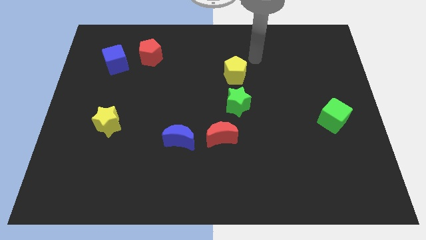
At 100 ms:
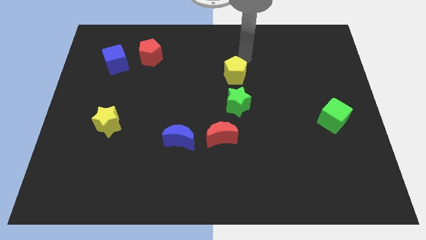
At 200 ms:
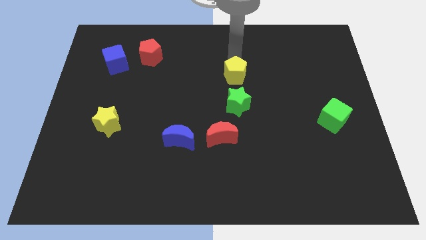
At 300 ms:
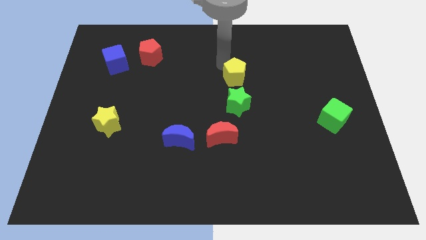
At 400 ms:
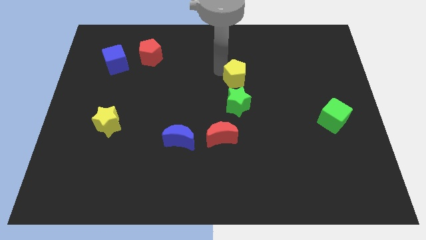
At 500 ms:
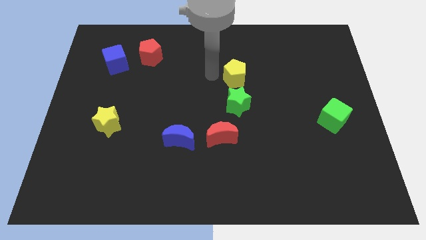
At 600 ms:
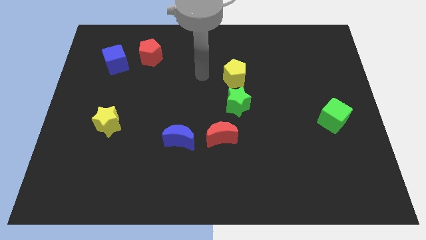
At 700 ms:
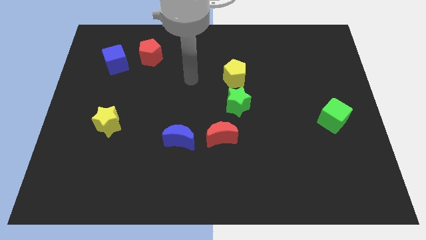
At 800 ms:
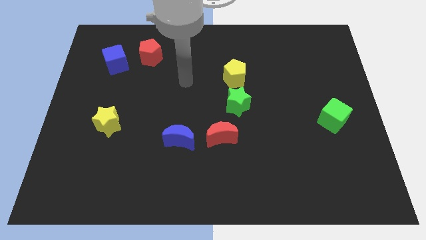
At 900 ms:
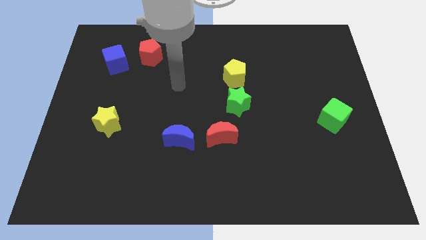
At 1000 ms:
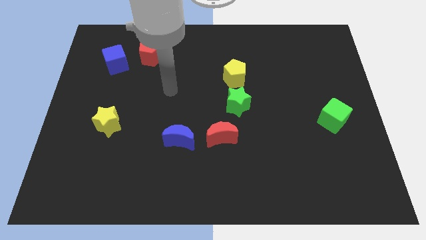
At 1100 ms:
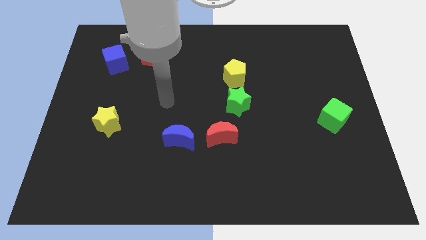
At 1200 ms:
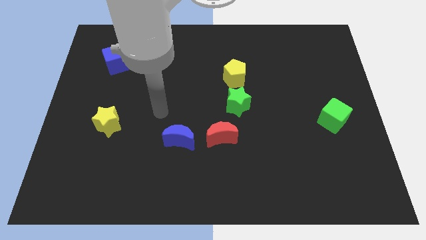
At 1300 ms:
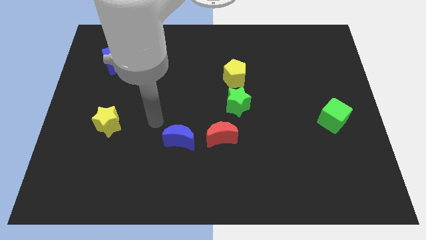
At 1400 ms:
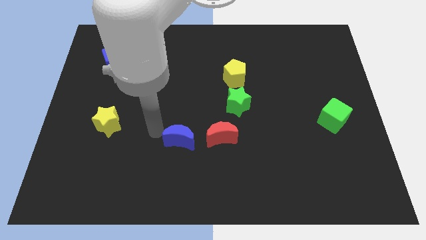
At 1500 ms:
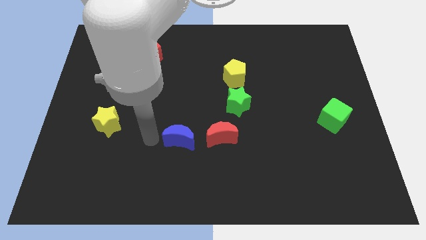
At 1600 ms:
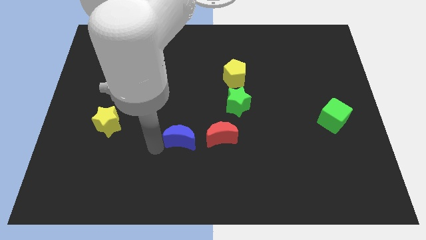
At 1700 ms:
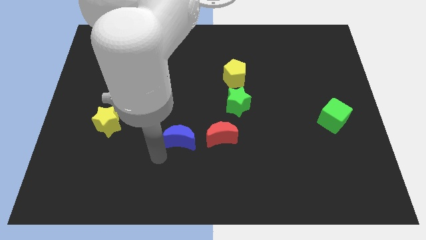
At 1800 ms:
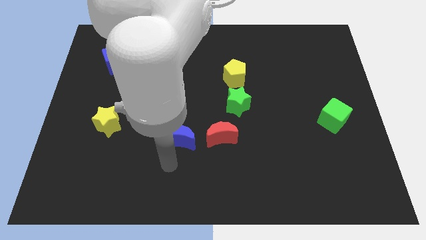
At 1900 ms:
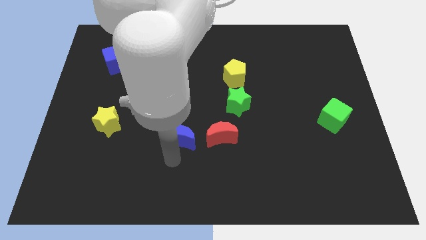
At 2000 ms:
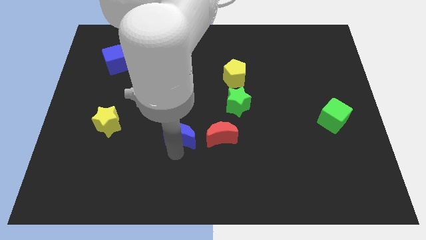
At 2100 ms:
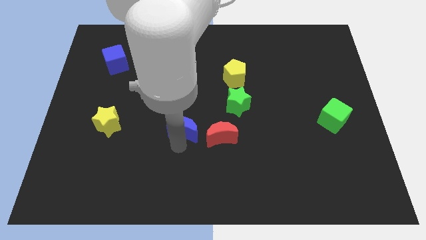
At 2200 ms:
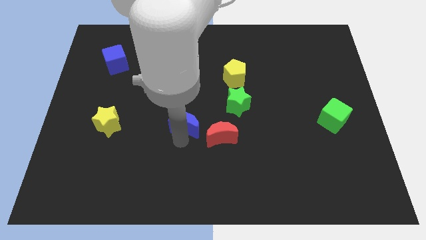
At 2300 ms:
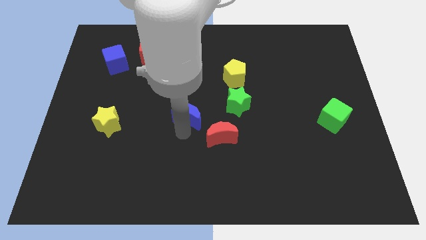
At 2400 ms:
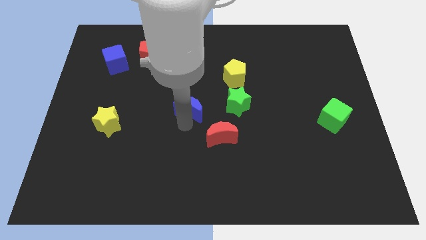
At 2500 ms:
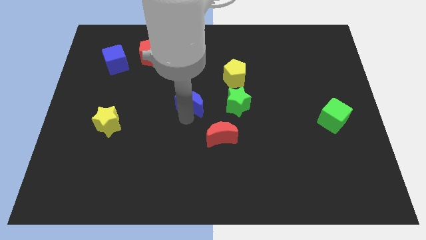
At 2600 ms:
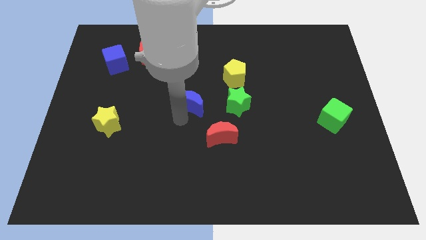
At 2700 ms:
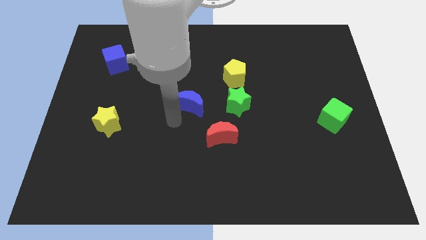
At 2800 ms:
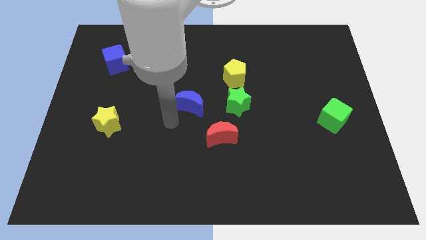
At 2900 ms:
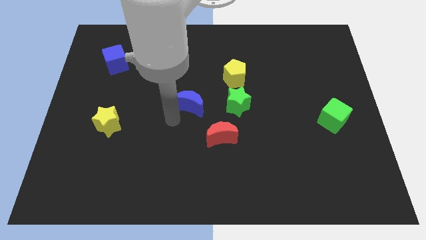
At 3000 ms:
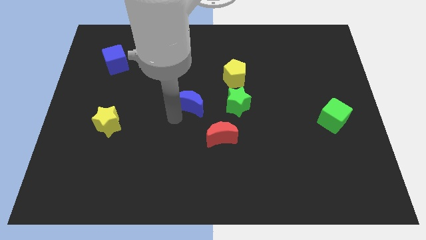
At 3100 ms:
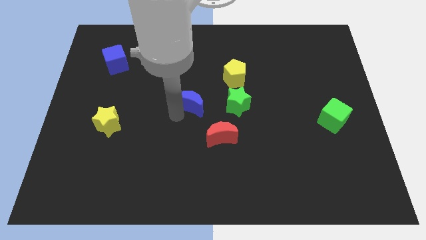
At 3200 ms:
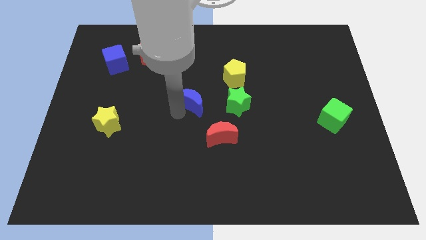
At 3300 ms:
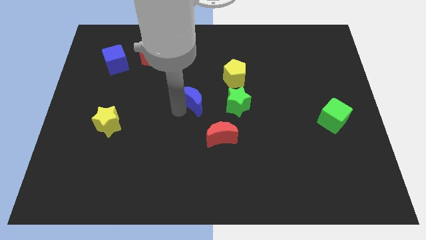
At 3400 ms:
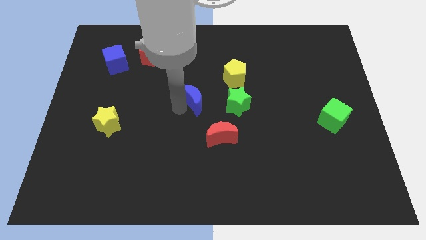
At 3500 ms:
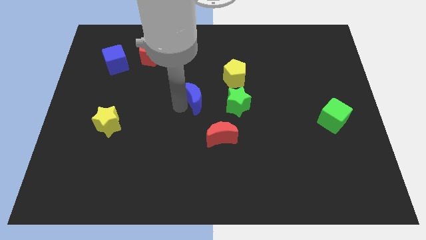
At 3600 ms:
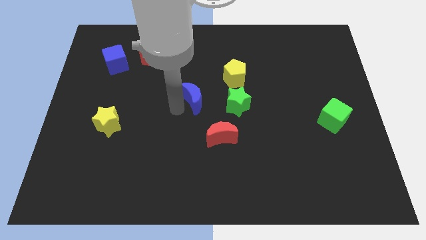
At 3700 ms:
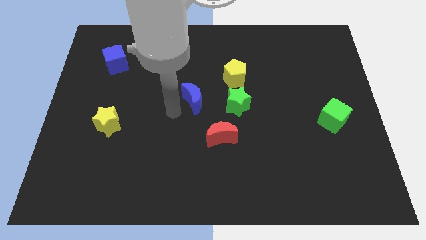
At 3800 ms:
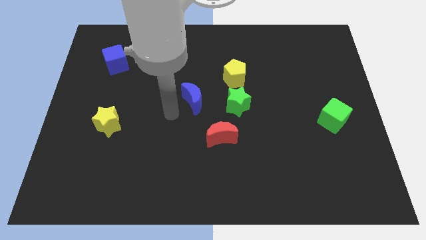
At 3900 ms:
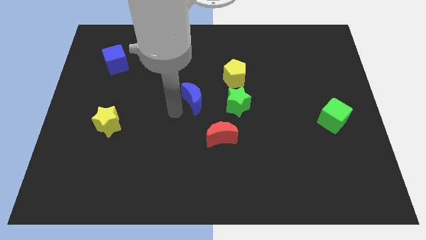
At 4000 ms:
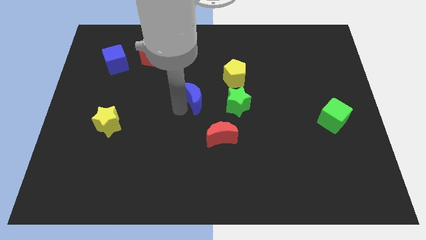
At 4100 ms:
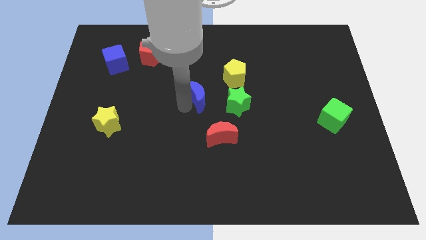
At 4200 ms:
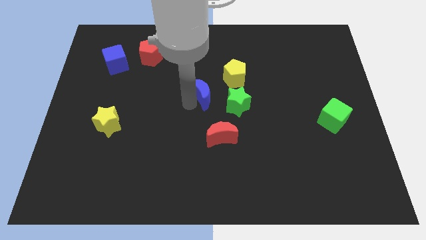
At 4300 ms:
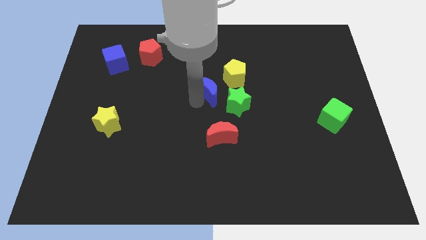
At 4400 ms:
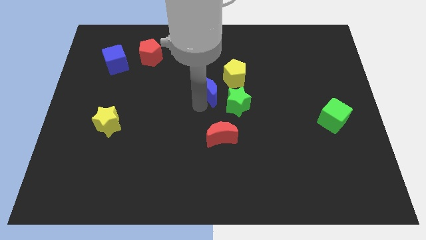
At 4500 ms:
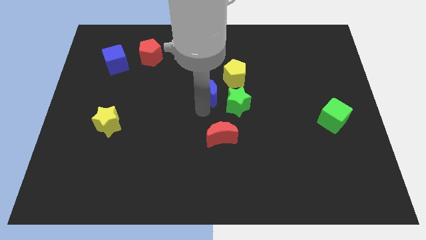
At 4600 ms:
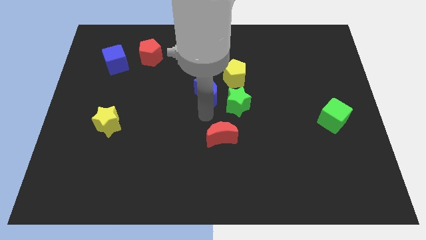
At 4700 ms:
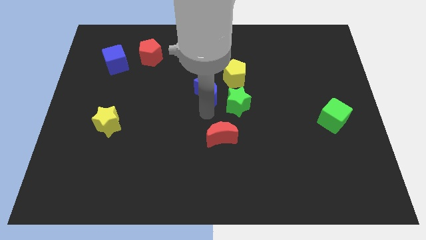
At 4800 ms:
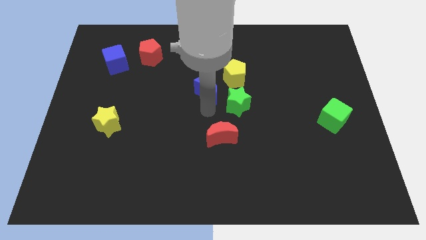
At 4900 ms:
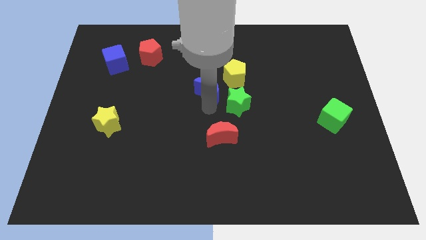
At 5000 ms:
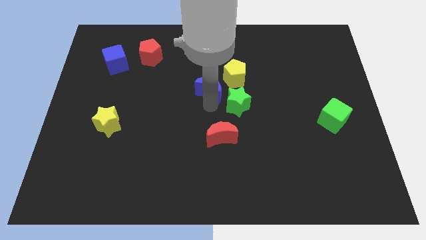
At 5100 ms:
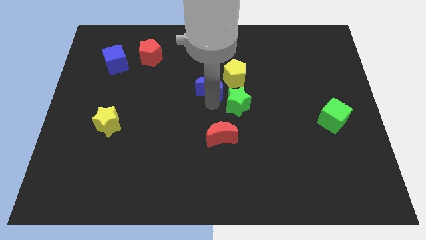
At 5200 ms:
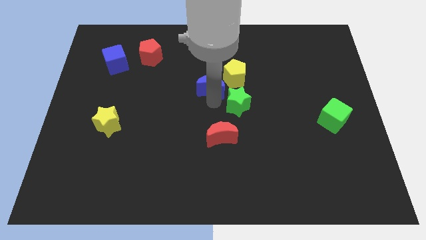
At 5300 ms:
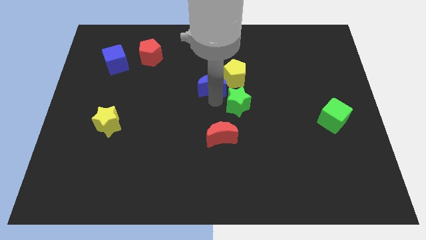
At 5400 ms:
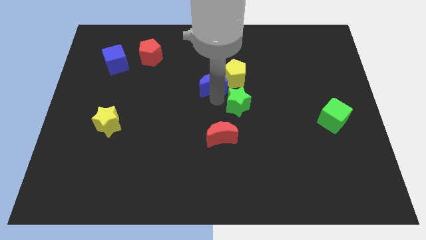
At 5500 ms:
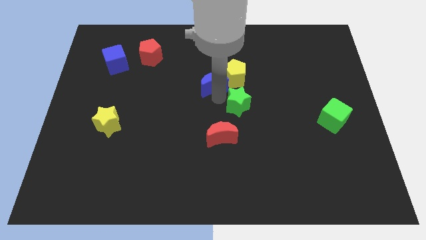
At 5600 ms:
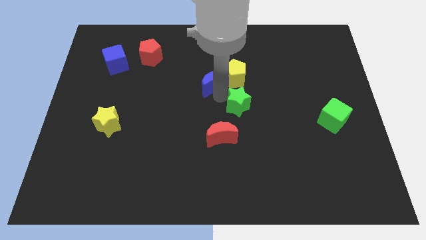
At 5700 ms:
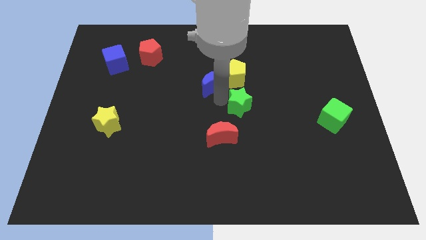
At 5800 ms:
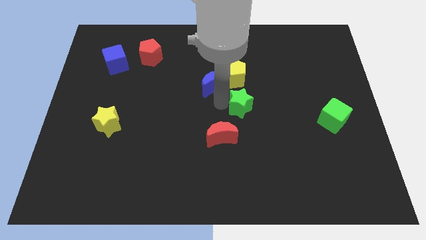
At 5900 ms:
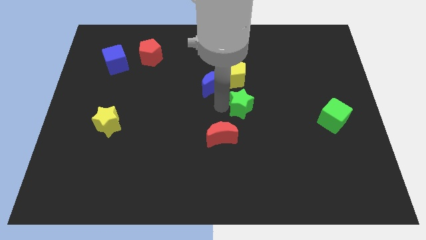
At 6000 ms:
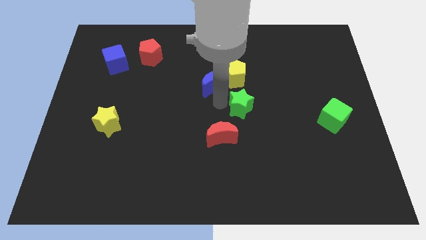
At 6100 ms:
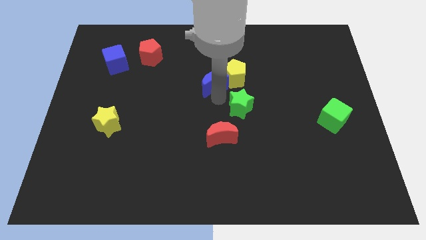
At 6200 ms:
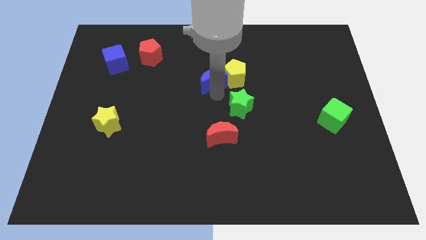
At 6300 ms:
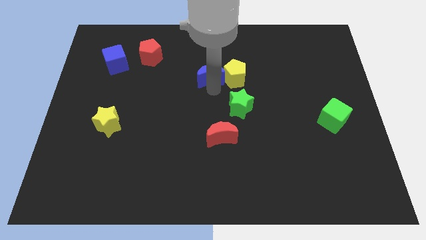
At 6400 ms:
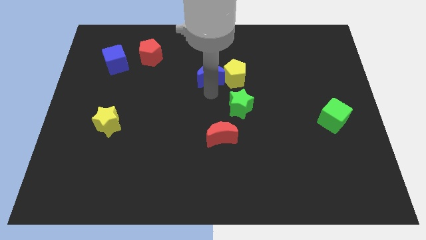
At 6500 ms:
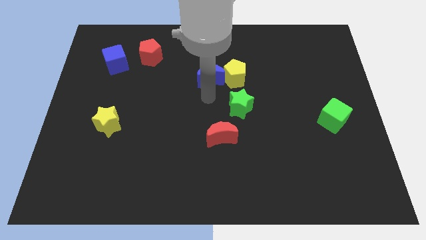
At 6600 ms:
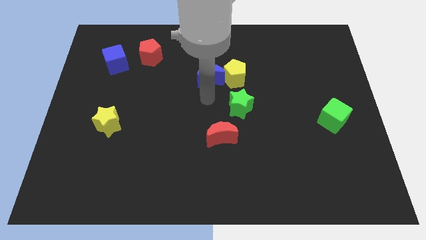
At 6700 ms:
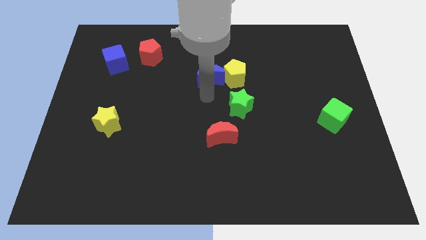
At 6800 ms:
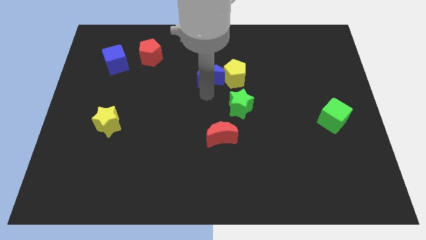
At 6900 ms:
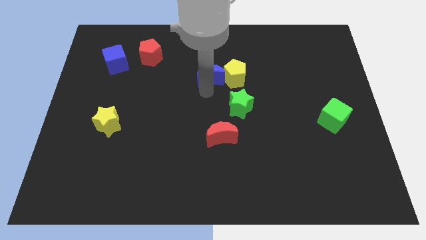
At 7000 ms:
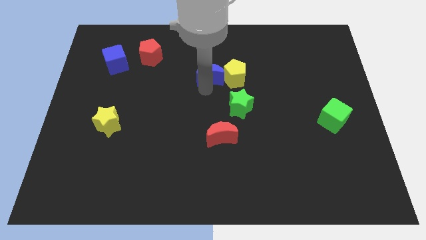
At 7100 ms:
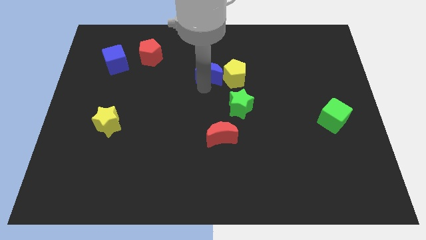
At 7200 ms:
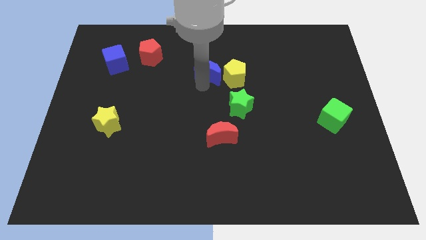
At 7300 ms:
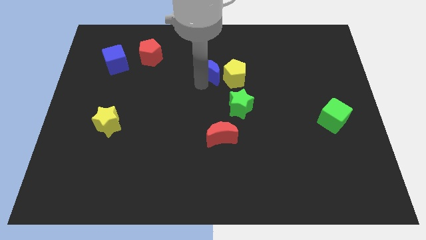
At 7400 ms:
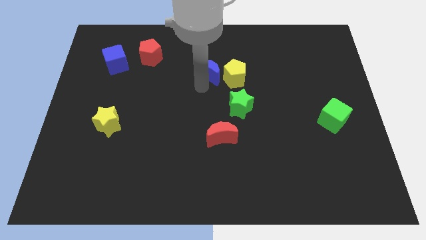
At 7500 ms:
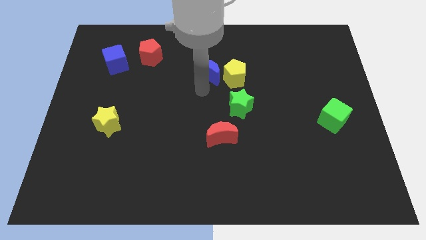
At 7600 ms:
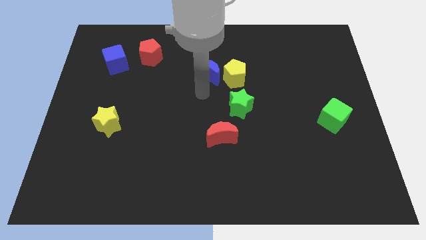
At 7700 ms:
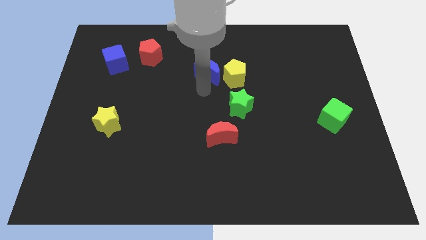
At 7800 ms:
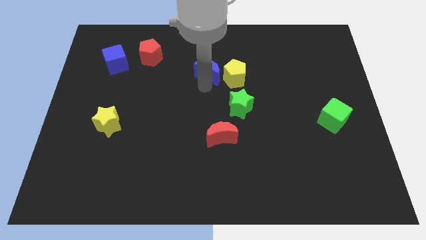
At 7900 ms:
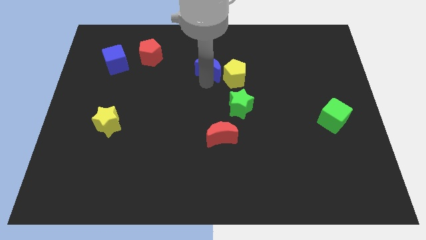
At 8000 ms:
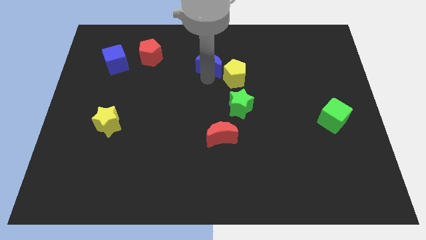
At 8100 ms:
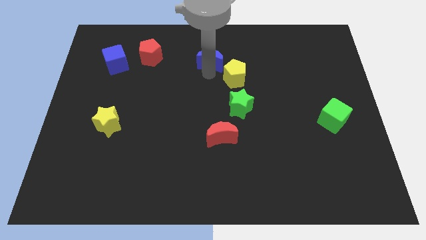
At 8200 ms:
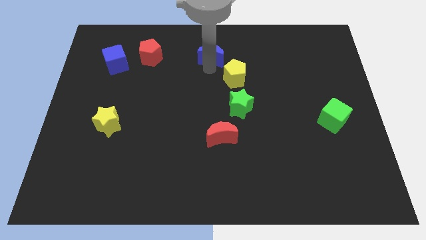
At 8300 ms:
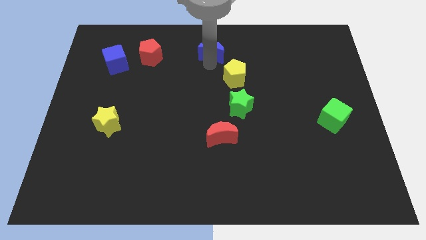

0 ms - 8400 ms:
move the blue moon to the top side
